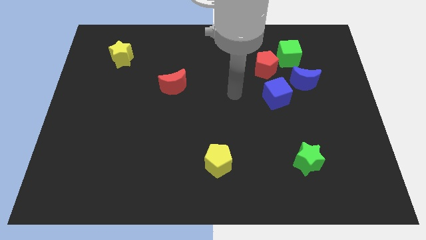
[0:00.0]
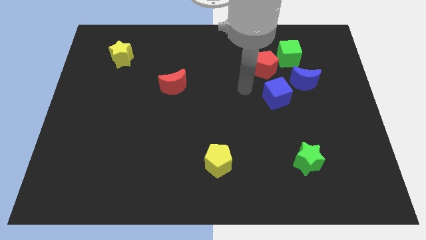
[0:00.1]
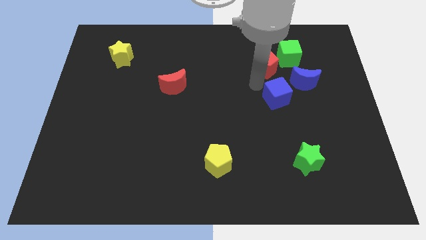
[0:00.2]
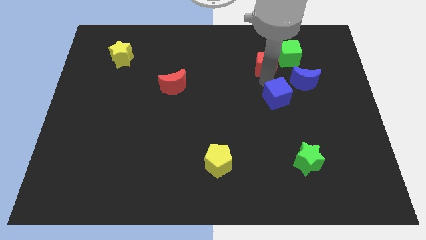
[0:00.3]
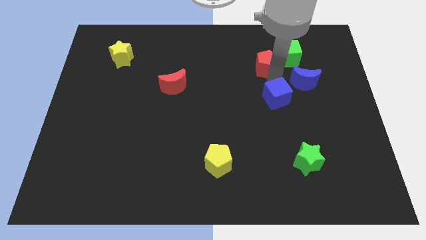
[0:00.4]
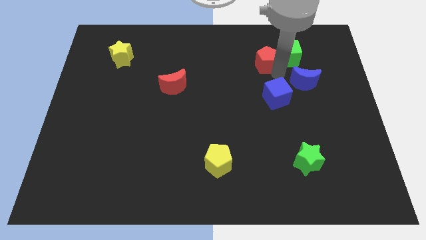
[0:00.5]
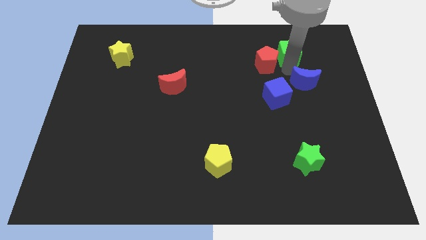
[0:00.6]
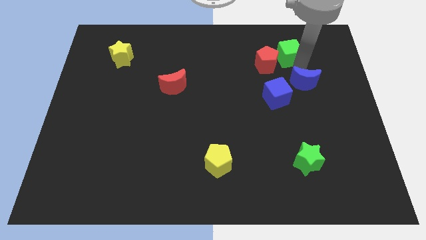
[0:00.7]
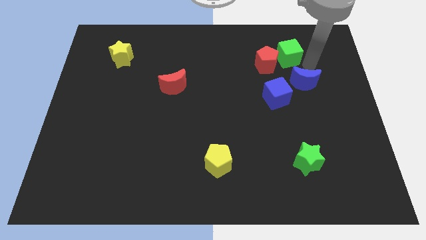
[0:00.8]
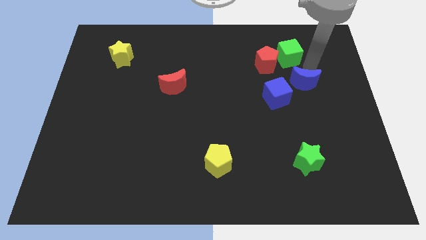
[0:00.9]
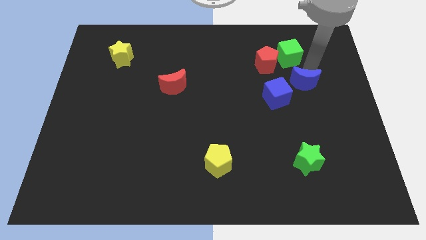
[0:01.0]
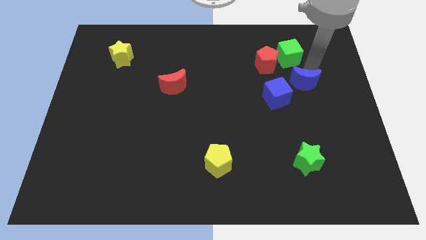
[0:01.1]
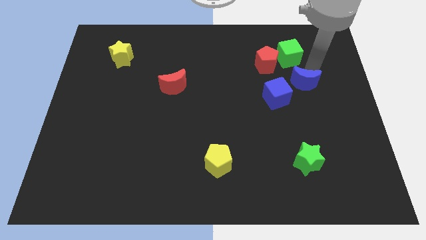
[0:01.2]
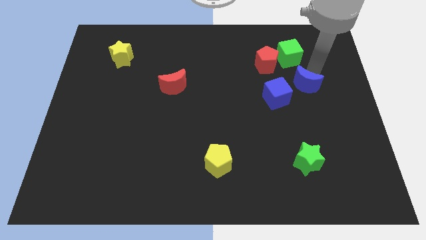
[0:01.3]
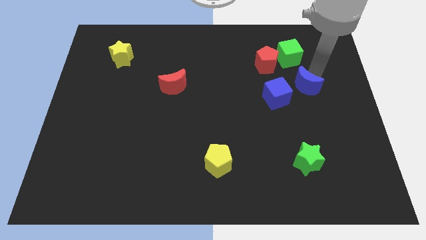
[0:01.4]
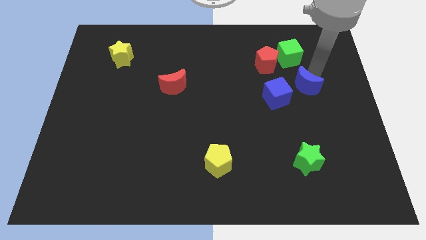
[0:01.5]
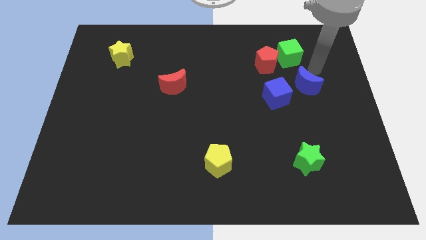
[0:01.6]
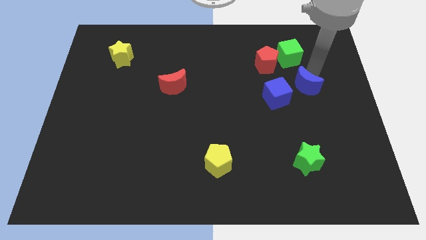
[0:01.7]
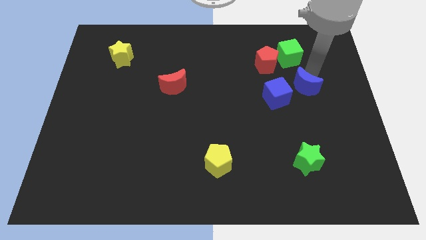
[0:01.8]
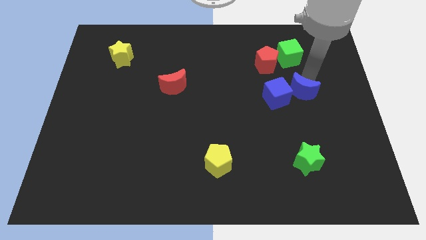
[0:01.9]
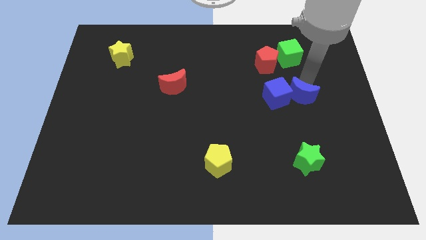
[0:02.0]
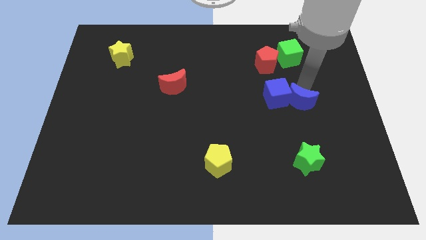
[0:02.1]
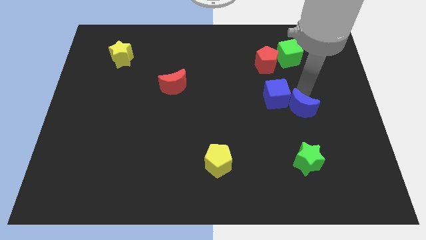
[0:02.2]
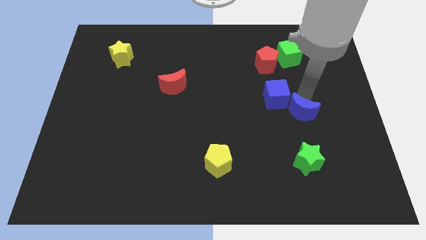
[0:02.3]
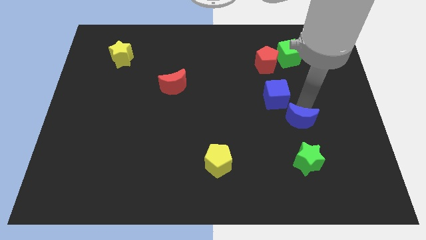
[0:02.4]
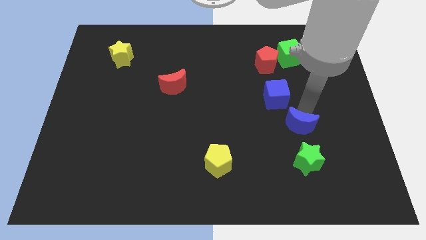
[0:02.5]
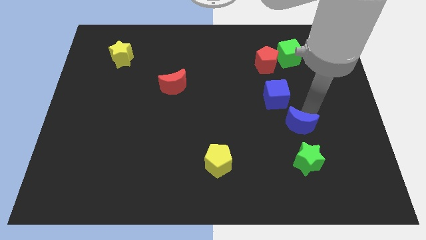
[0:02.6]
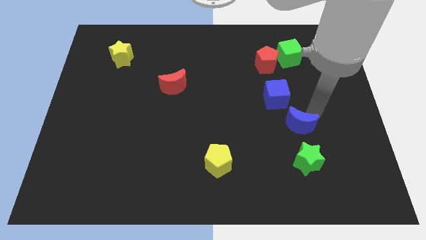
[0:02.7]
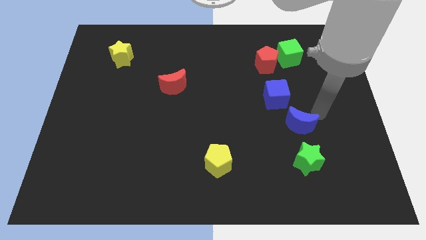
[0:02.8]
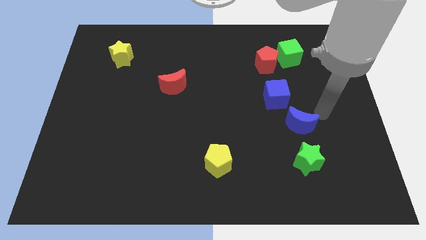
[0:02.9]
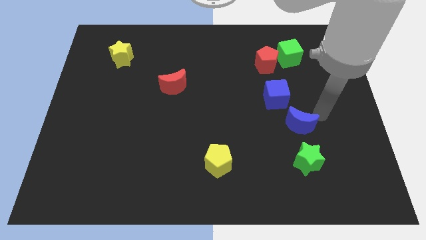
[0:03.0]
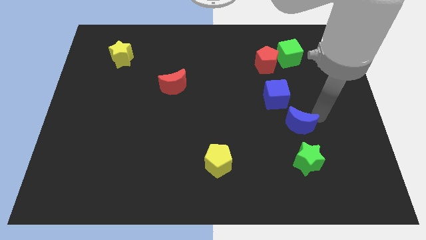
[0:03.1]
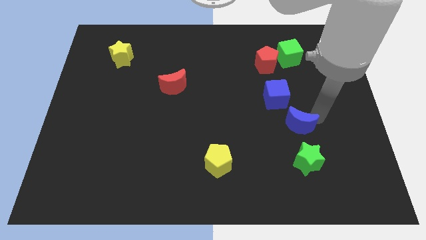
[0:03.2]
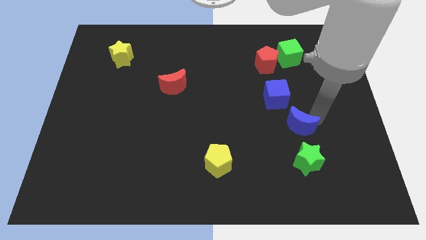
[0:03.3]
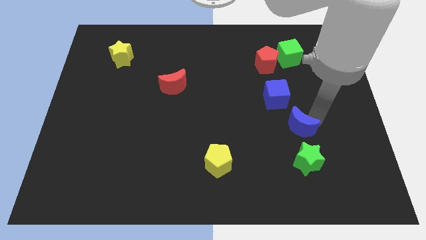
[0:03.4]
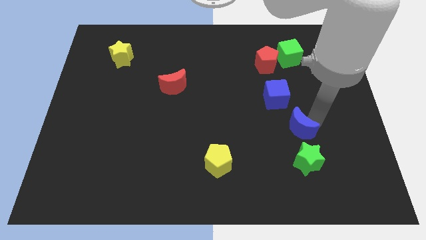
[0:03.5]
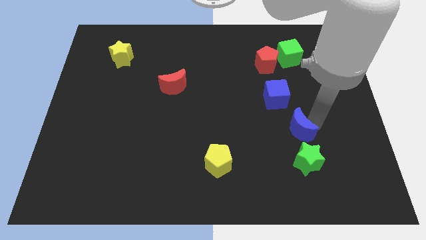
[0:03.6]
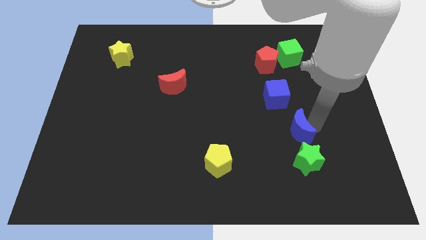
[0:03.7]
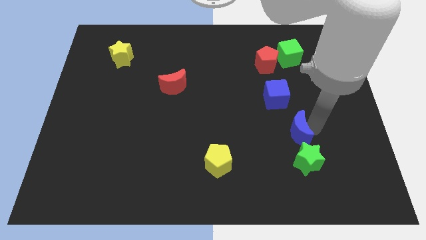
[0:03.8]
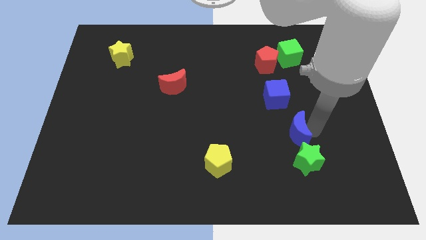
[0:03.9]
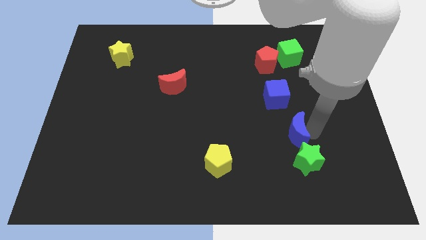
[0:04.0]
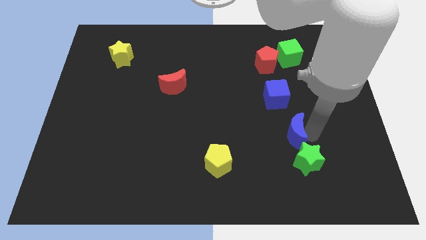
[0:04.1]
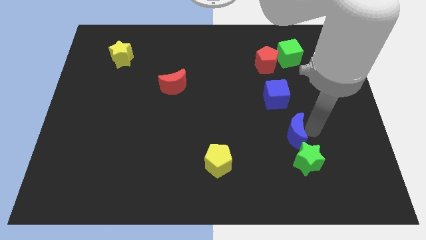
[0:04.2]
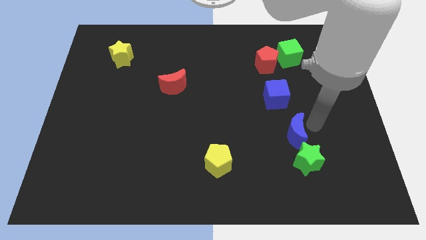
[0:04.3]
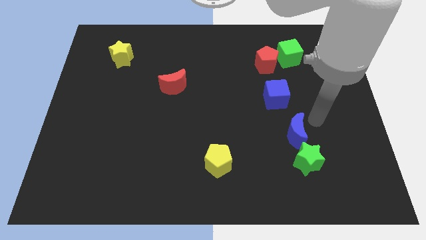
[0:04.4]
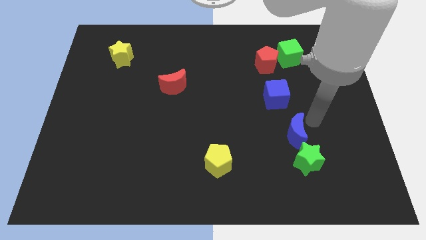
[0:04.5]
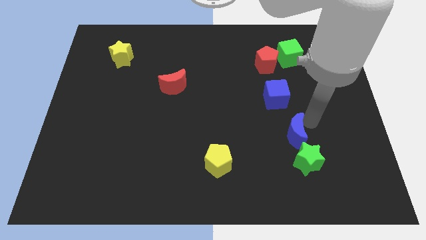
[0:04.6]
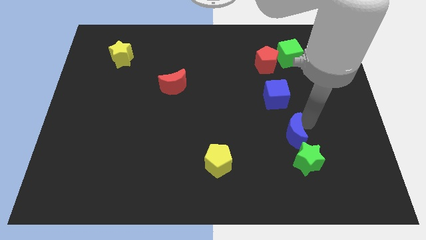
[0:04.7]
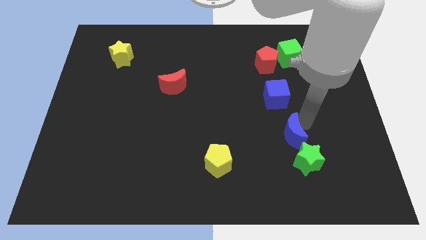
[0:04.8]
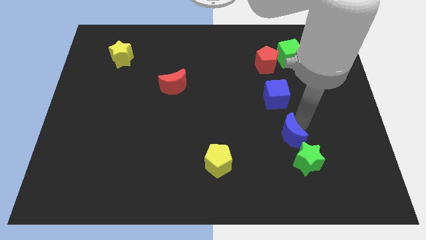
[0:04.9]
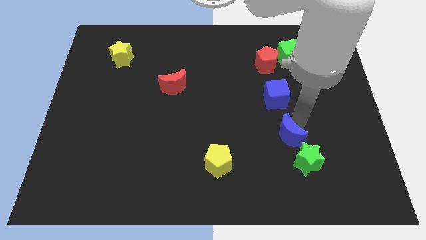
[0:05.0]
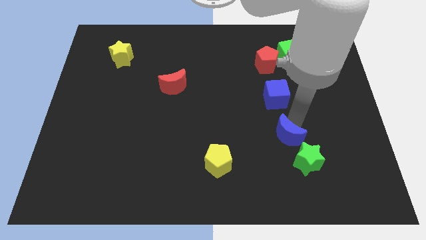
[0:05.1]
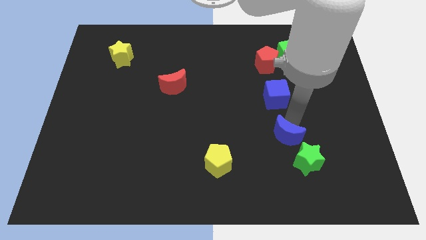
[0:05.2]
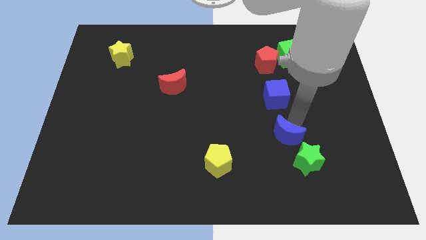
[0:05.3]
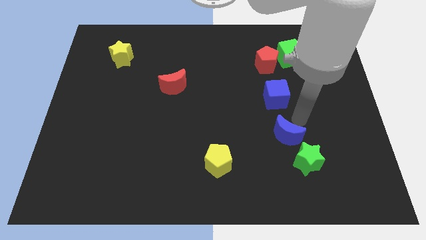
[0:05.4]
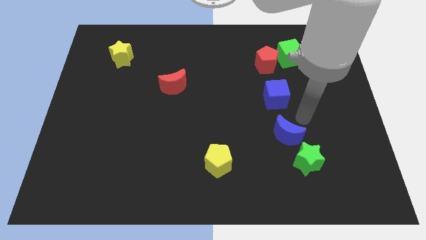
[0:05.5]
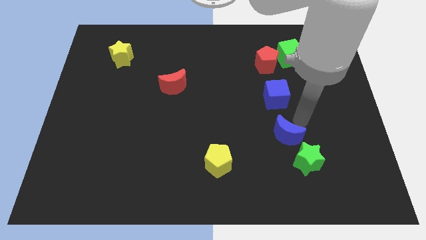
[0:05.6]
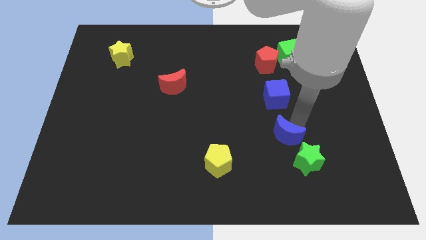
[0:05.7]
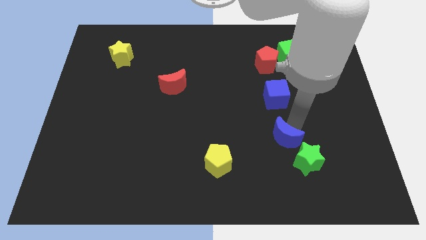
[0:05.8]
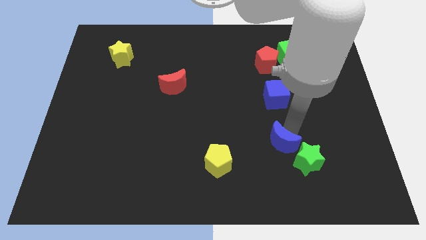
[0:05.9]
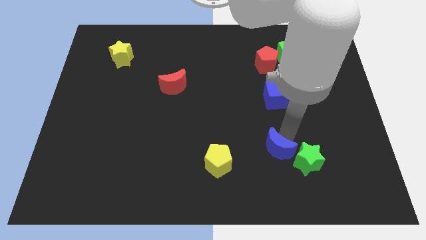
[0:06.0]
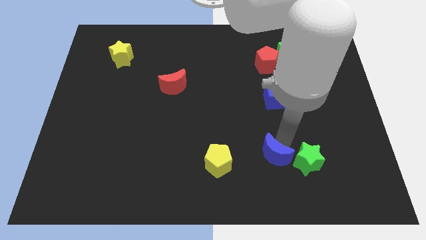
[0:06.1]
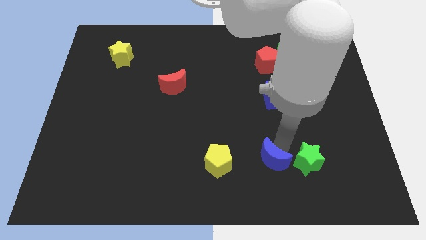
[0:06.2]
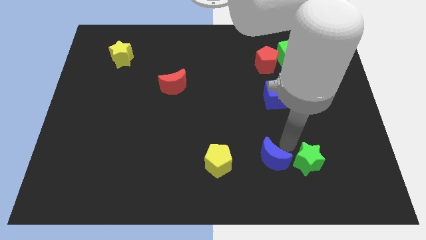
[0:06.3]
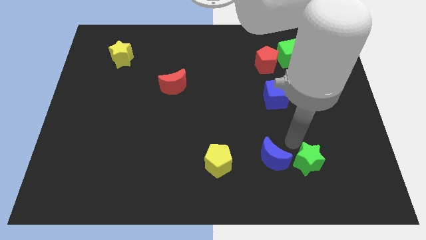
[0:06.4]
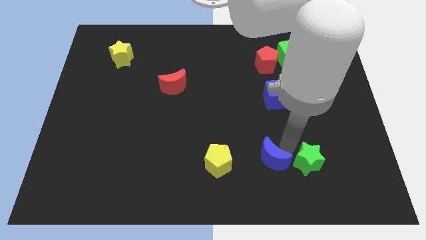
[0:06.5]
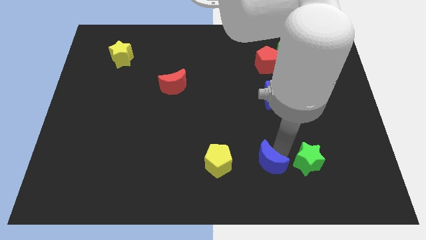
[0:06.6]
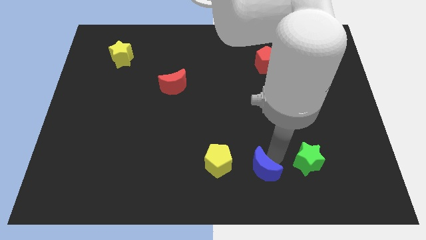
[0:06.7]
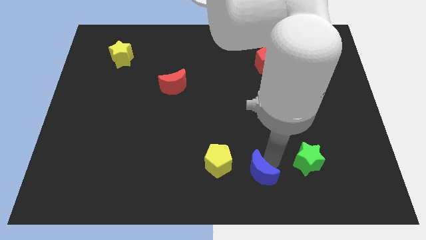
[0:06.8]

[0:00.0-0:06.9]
move the blue moon to the bottom side
